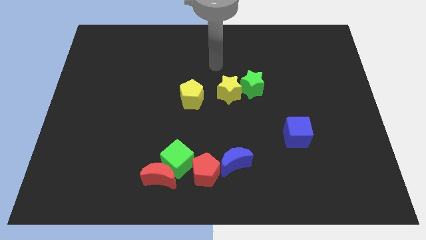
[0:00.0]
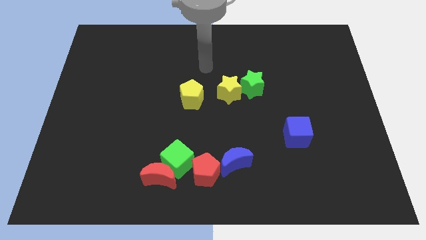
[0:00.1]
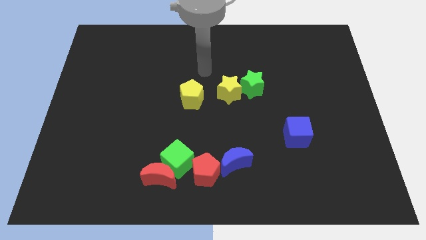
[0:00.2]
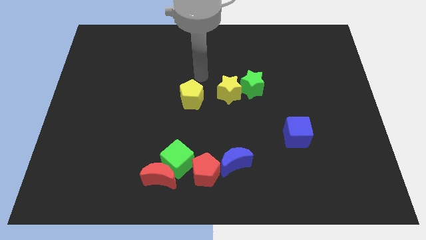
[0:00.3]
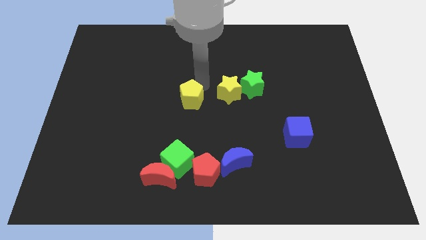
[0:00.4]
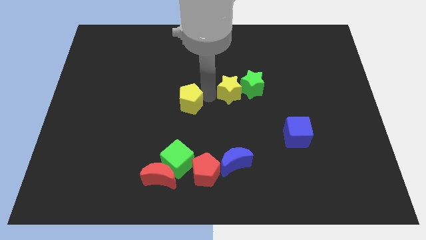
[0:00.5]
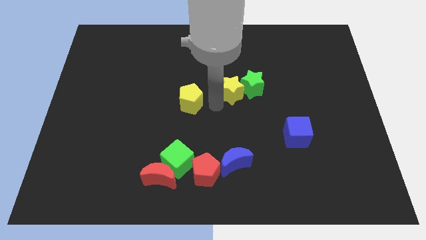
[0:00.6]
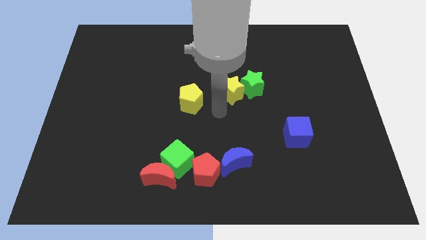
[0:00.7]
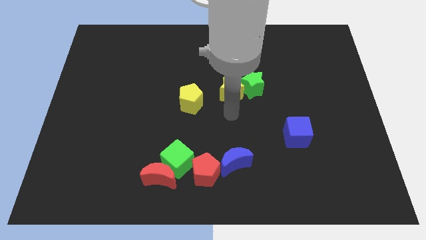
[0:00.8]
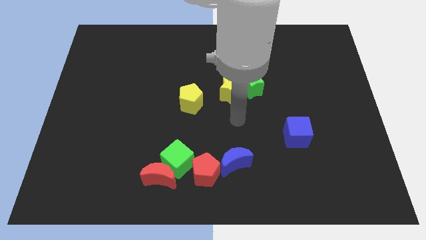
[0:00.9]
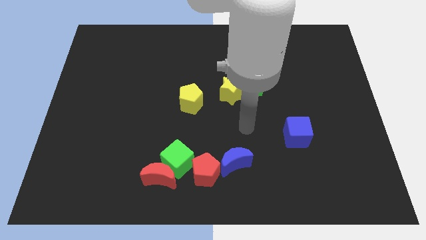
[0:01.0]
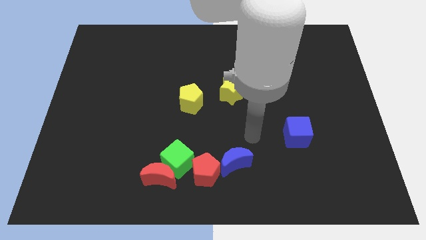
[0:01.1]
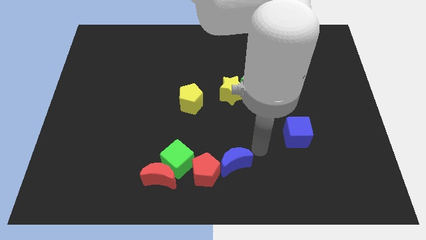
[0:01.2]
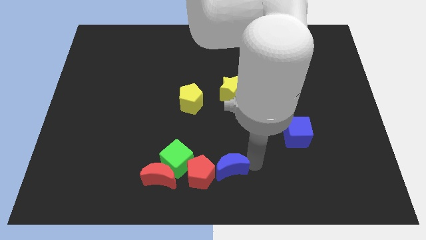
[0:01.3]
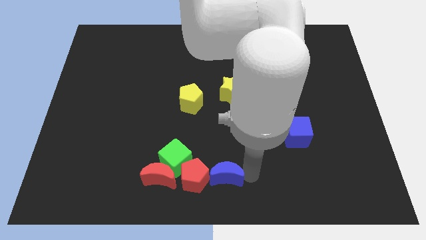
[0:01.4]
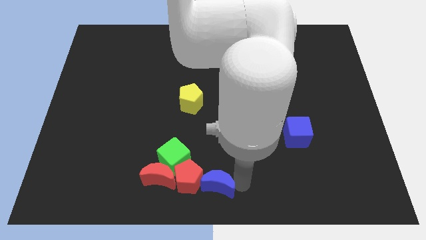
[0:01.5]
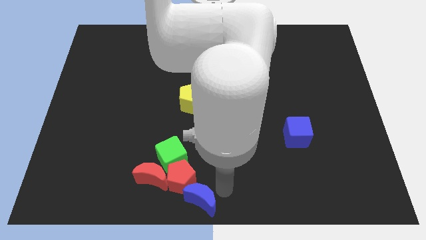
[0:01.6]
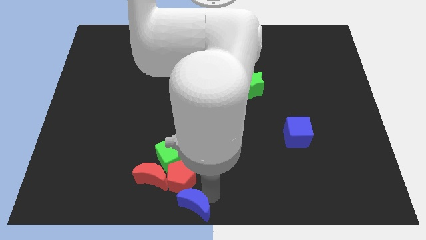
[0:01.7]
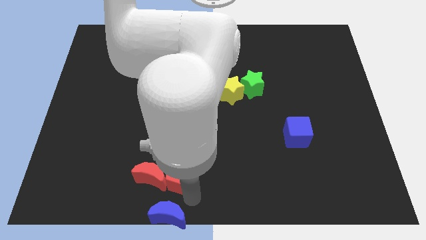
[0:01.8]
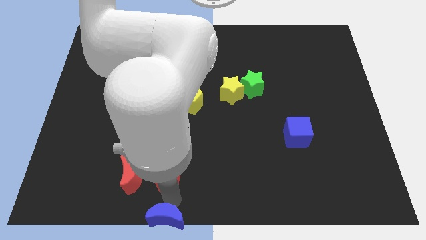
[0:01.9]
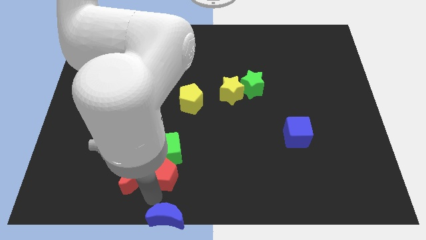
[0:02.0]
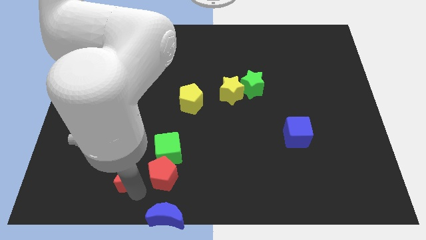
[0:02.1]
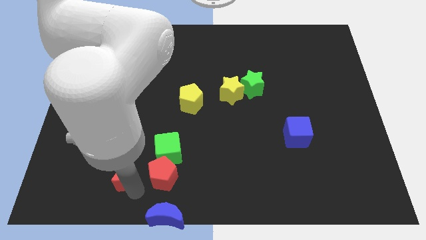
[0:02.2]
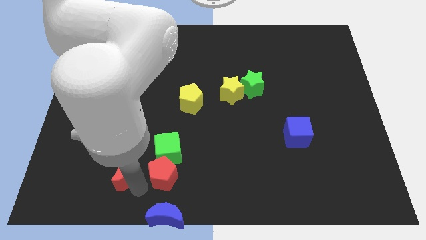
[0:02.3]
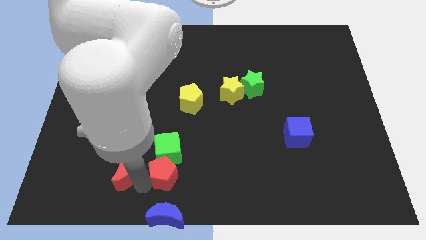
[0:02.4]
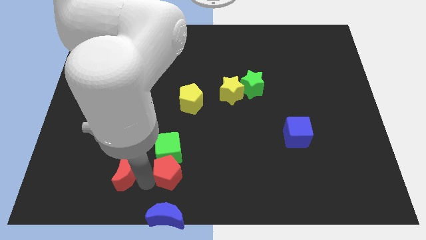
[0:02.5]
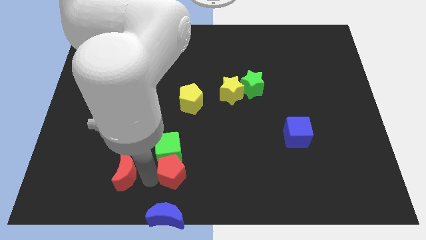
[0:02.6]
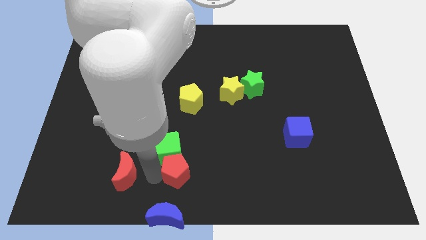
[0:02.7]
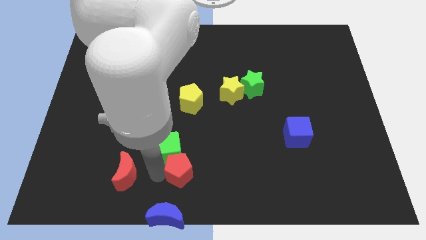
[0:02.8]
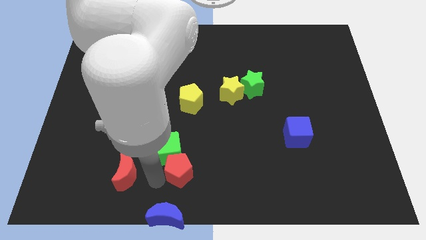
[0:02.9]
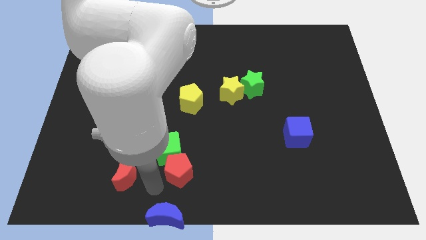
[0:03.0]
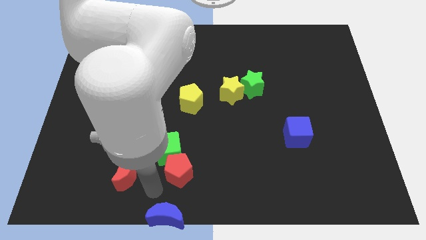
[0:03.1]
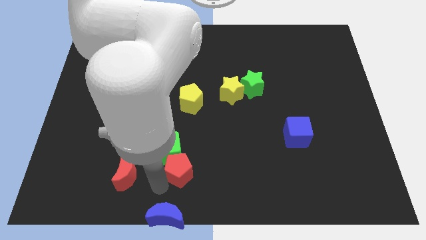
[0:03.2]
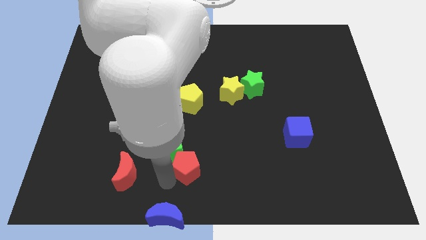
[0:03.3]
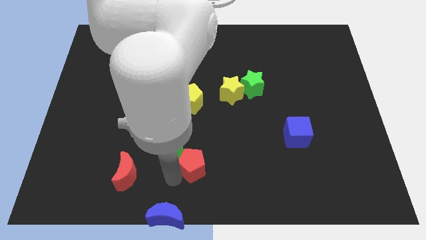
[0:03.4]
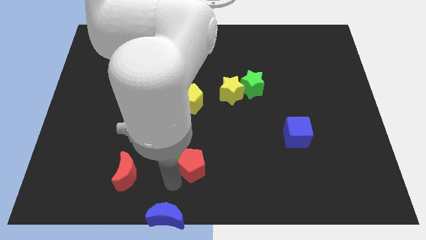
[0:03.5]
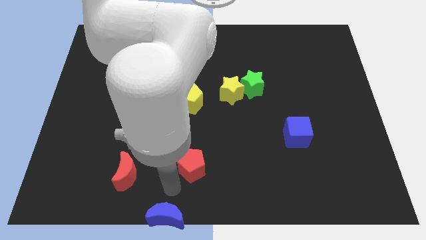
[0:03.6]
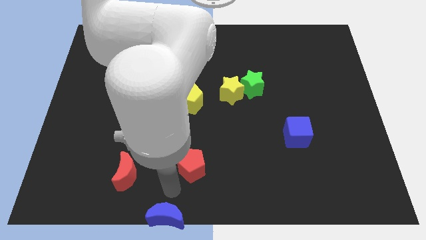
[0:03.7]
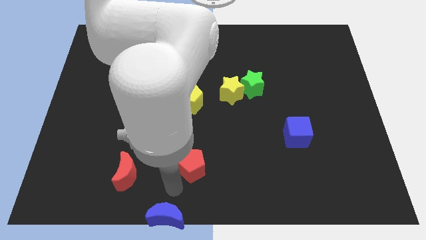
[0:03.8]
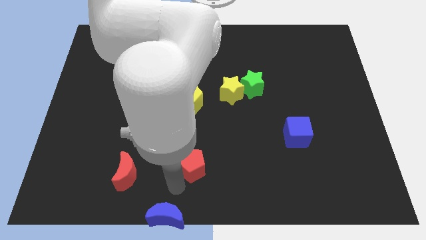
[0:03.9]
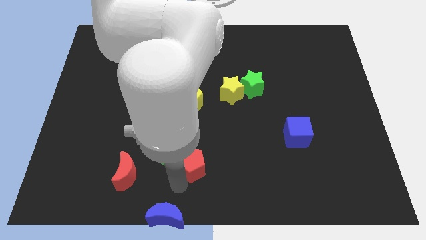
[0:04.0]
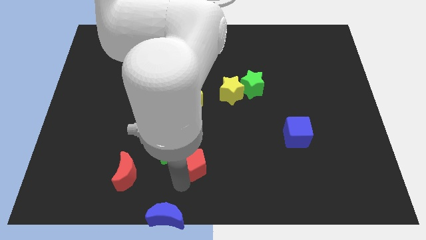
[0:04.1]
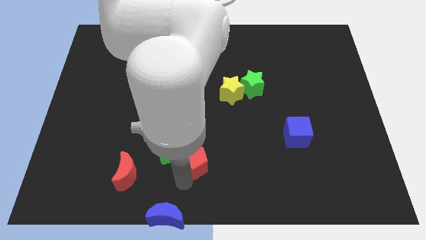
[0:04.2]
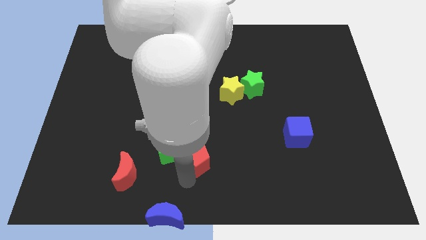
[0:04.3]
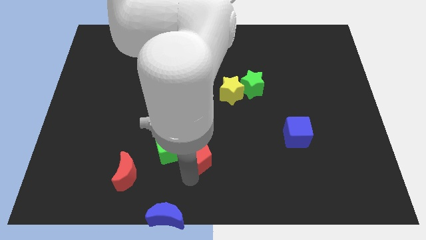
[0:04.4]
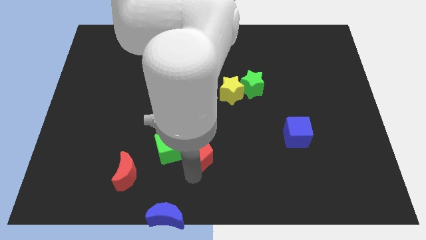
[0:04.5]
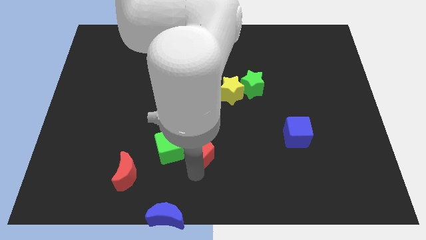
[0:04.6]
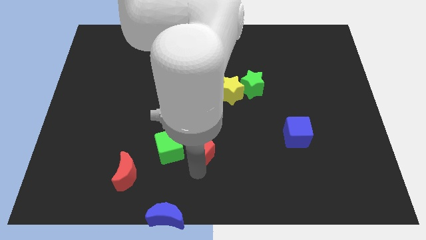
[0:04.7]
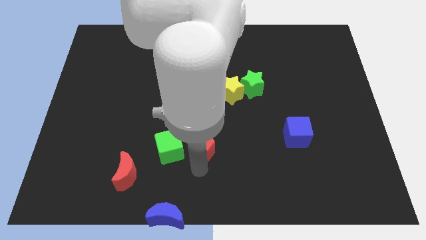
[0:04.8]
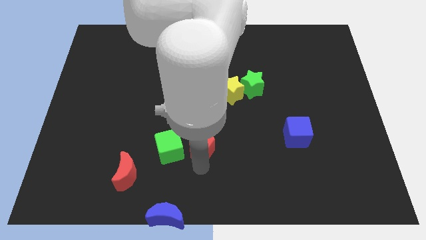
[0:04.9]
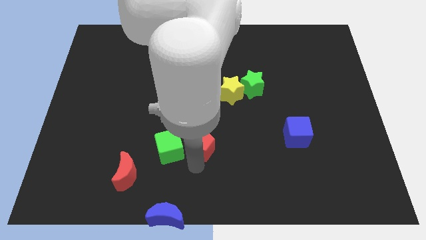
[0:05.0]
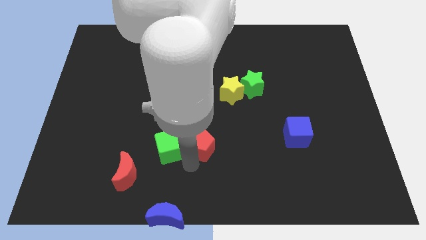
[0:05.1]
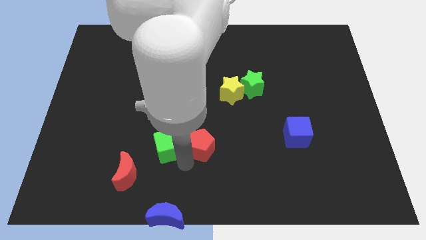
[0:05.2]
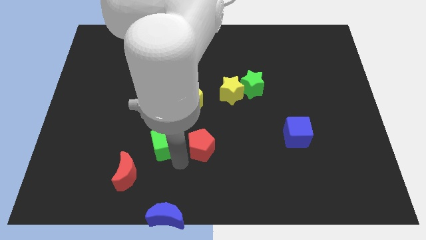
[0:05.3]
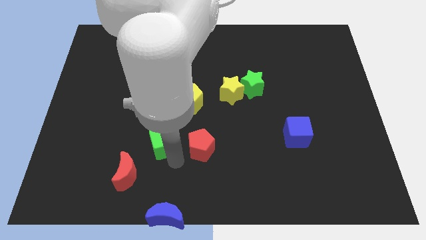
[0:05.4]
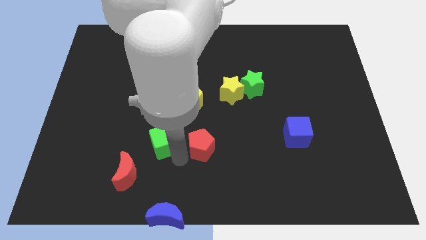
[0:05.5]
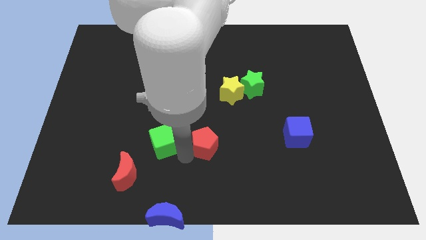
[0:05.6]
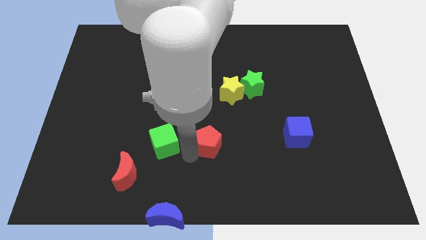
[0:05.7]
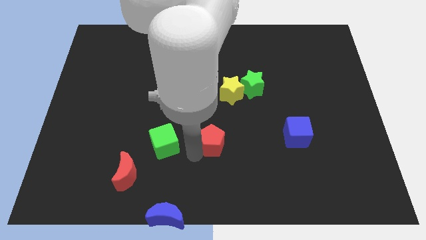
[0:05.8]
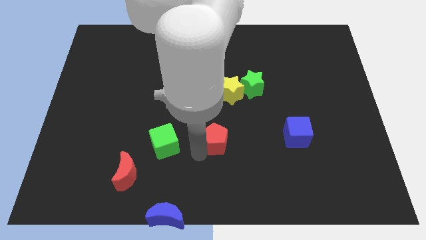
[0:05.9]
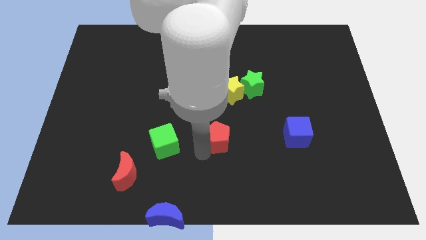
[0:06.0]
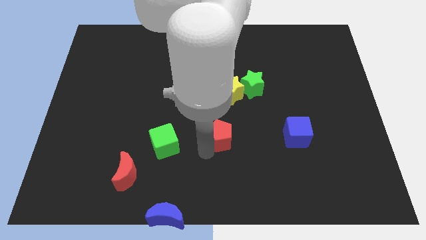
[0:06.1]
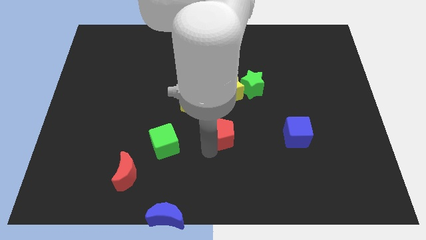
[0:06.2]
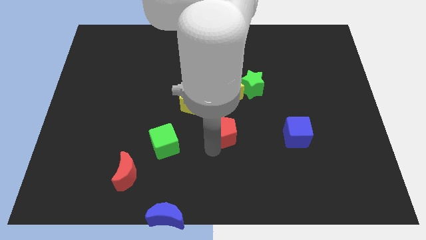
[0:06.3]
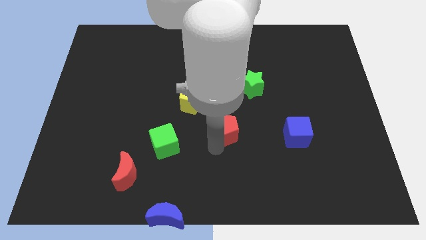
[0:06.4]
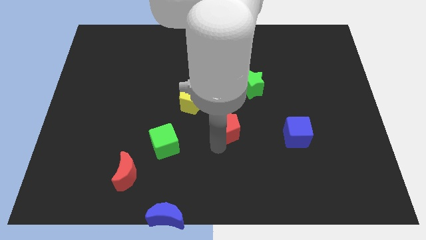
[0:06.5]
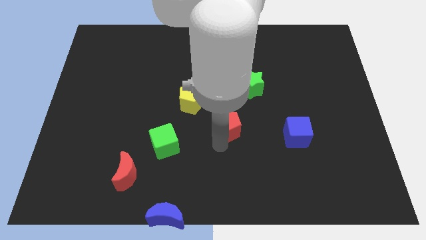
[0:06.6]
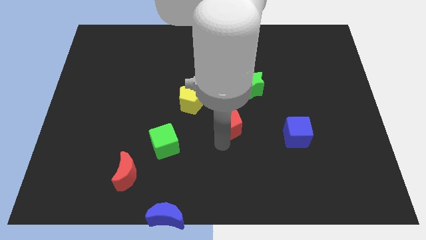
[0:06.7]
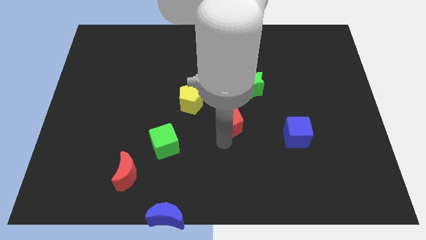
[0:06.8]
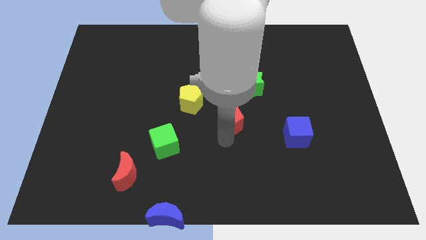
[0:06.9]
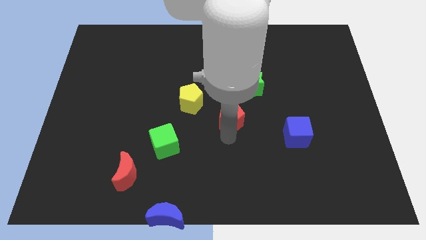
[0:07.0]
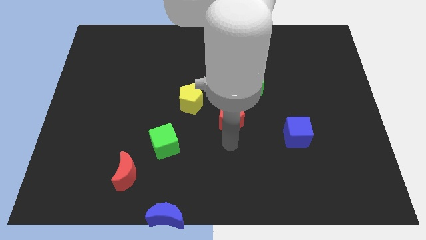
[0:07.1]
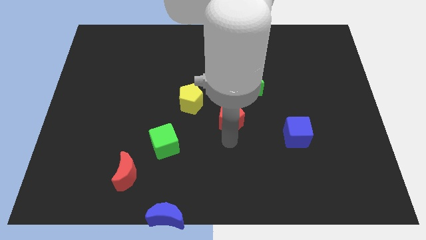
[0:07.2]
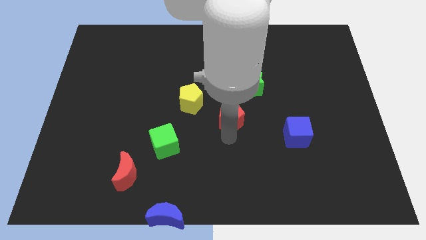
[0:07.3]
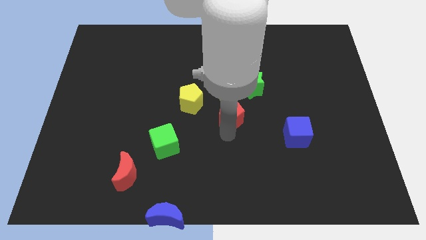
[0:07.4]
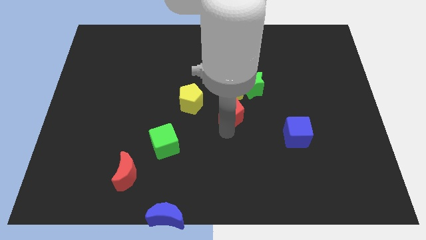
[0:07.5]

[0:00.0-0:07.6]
move the red pentagon next to the yellow star
